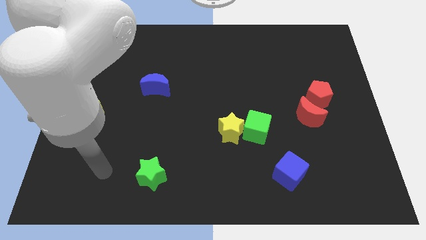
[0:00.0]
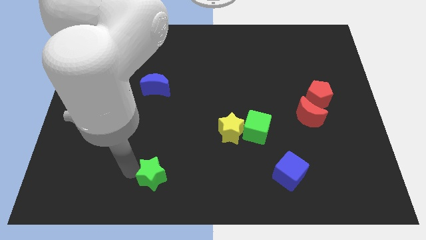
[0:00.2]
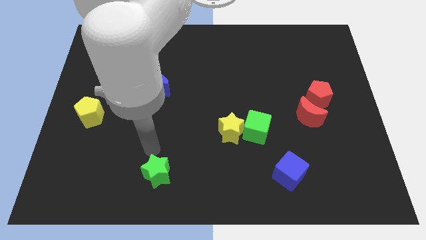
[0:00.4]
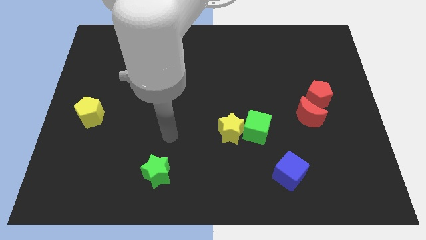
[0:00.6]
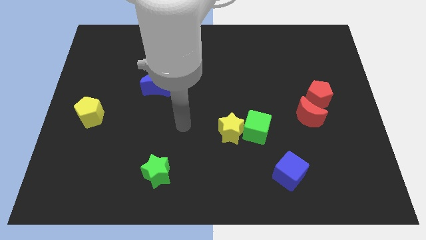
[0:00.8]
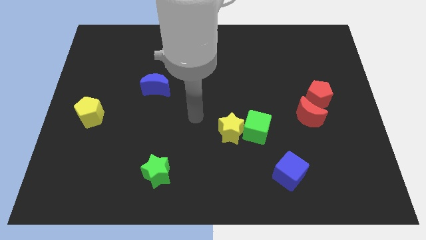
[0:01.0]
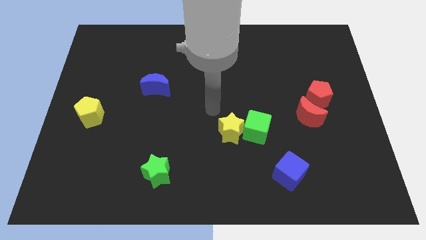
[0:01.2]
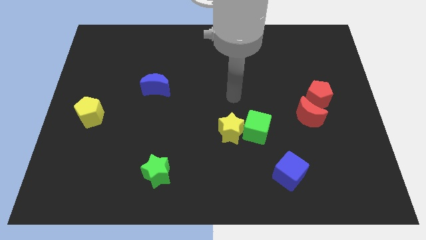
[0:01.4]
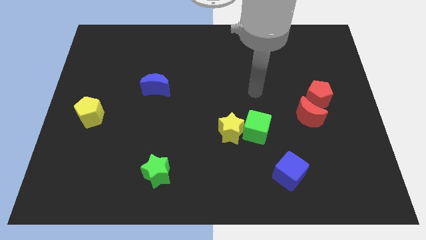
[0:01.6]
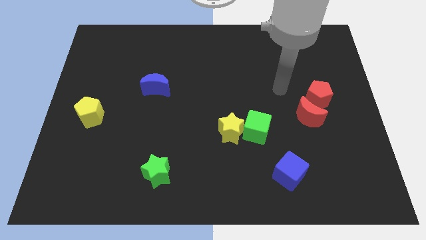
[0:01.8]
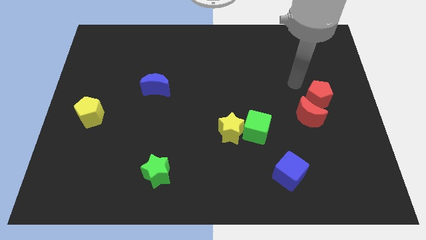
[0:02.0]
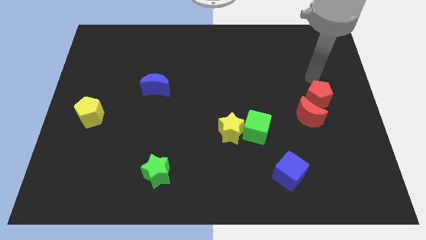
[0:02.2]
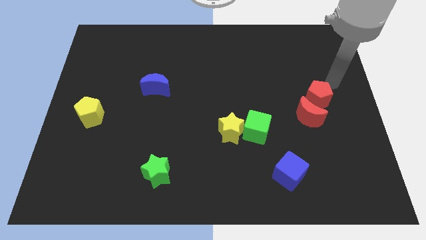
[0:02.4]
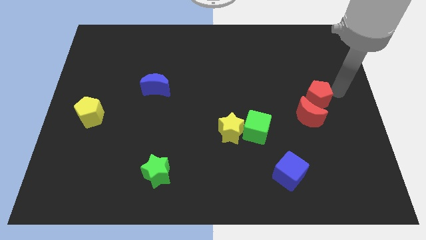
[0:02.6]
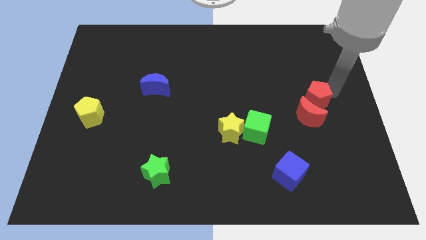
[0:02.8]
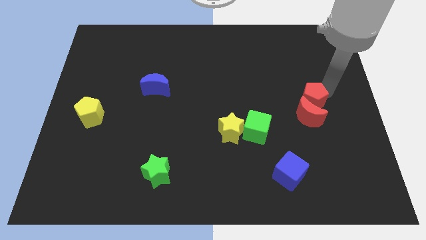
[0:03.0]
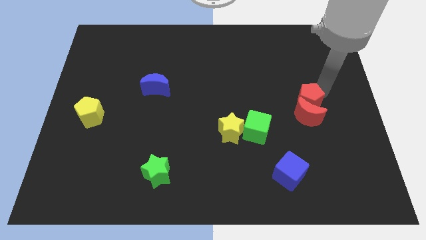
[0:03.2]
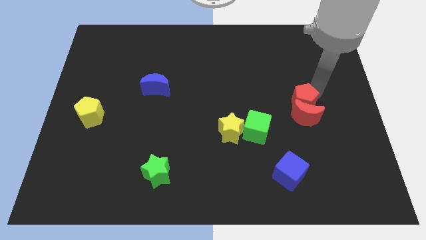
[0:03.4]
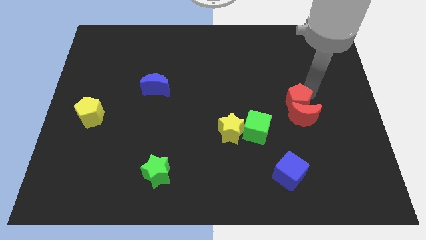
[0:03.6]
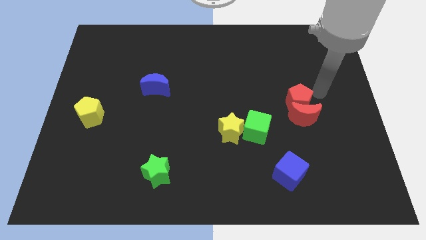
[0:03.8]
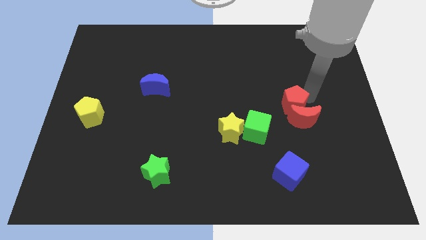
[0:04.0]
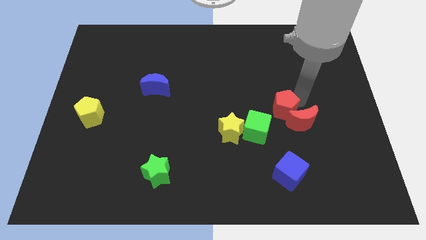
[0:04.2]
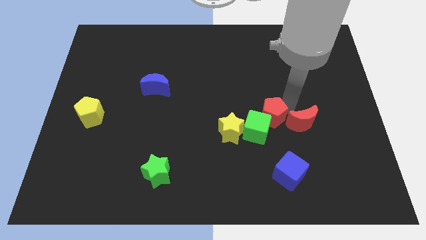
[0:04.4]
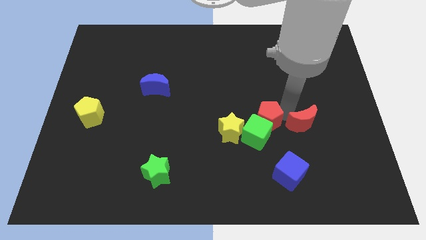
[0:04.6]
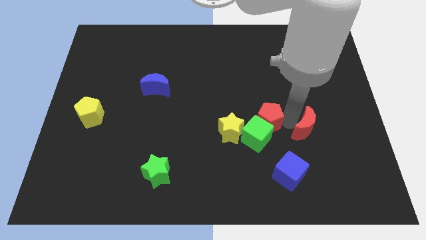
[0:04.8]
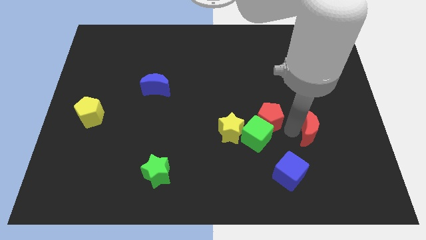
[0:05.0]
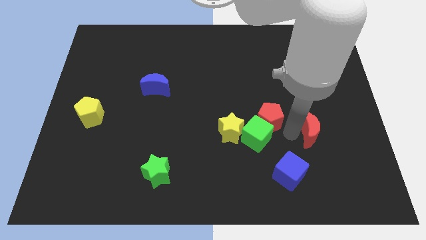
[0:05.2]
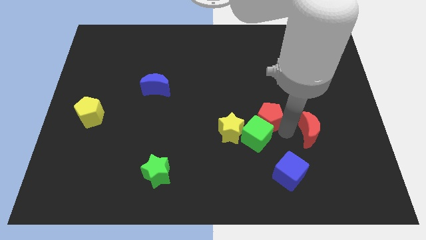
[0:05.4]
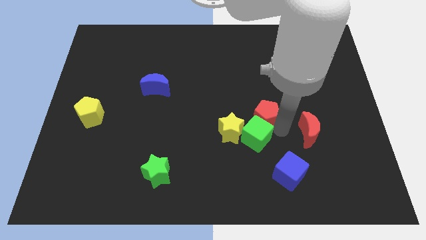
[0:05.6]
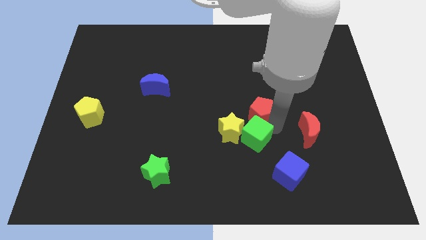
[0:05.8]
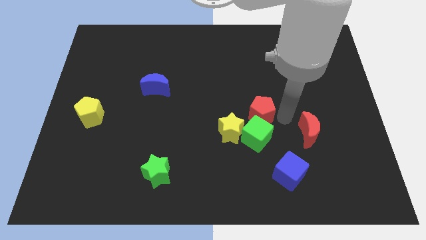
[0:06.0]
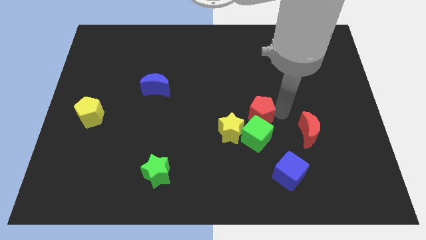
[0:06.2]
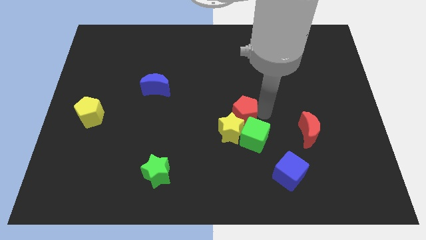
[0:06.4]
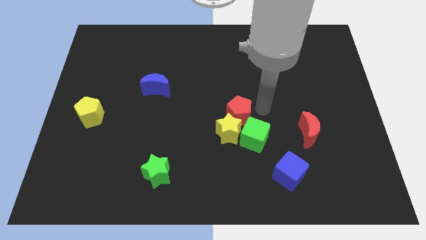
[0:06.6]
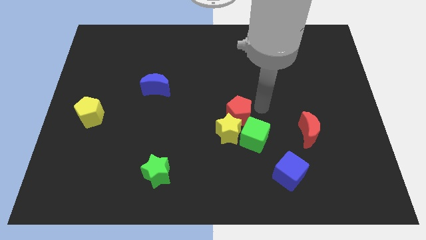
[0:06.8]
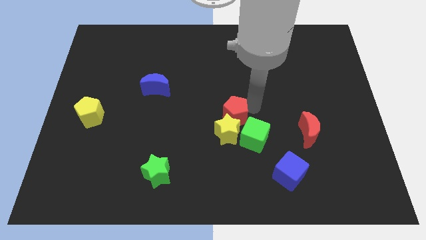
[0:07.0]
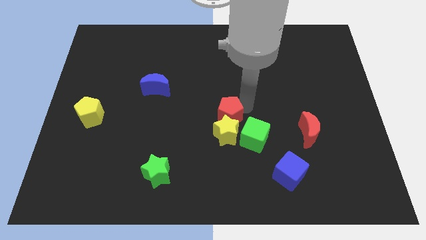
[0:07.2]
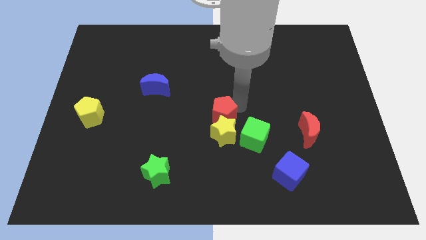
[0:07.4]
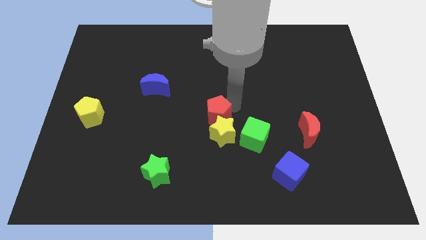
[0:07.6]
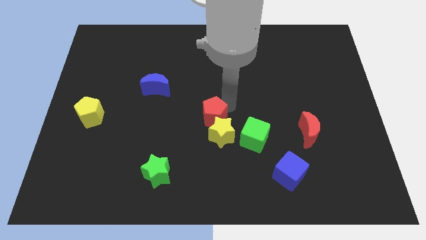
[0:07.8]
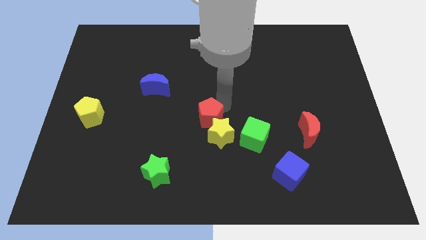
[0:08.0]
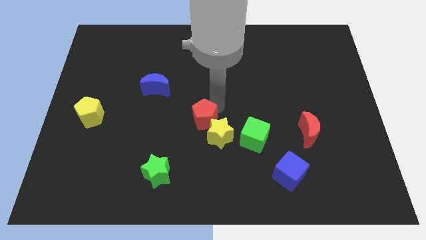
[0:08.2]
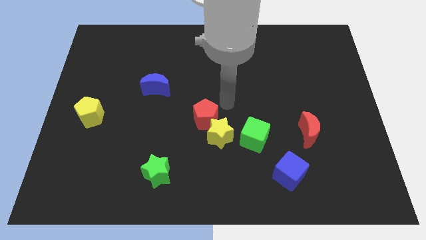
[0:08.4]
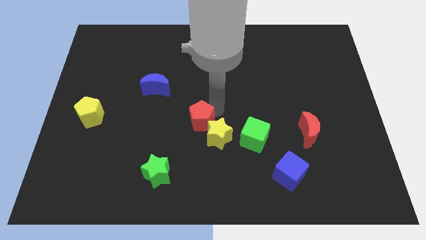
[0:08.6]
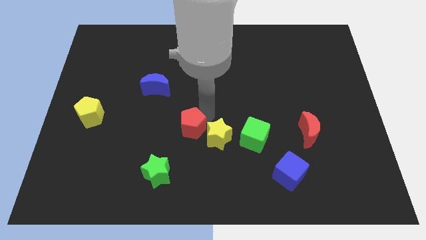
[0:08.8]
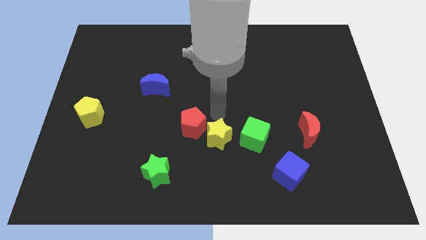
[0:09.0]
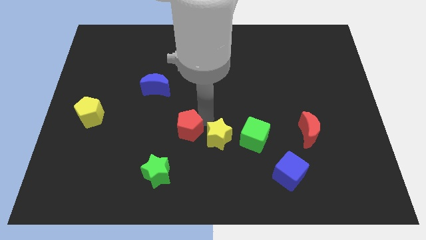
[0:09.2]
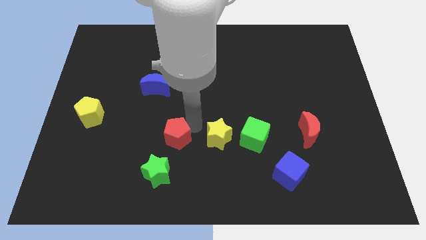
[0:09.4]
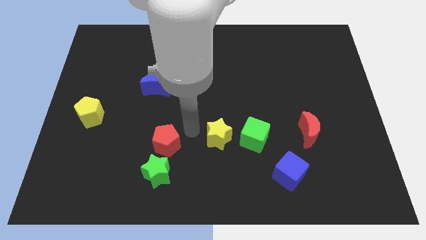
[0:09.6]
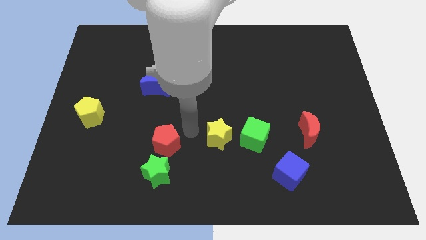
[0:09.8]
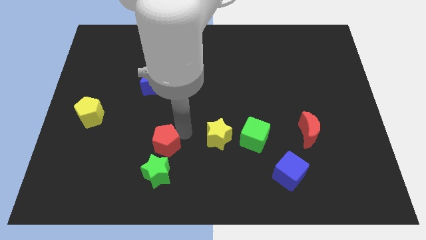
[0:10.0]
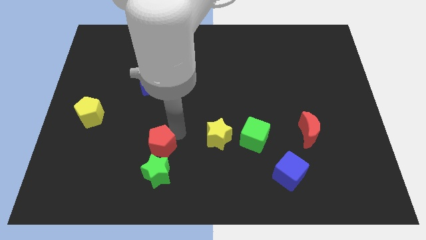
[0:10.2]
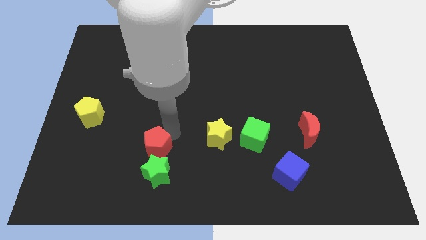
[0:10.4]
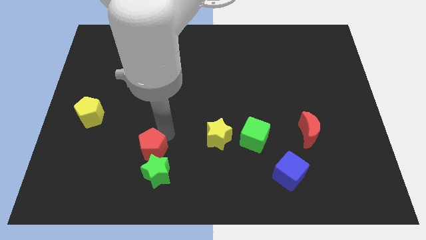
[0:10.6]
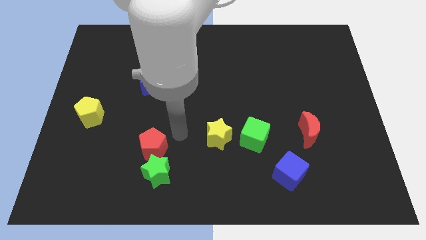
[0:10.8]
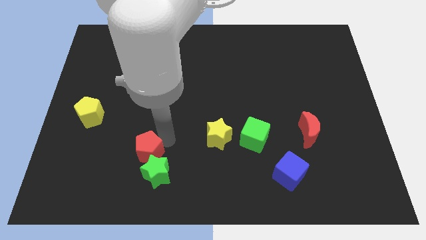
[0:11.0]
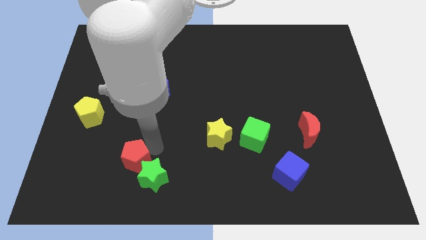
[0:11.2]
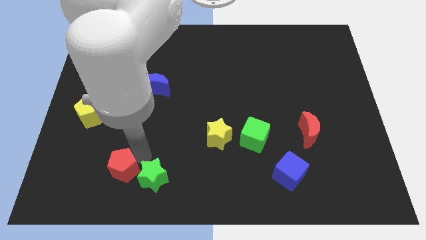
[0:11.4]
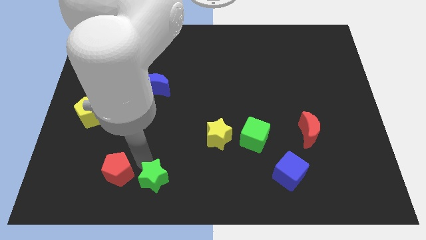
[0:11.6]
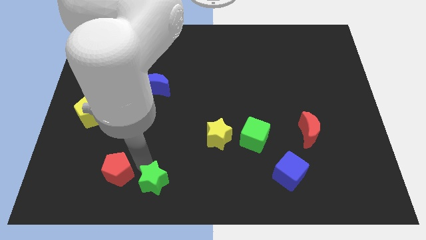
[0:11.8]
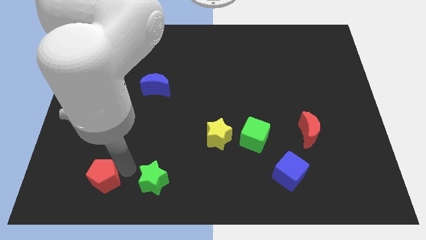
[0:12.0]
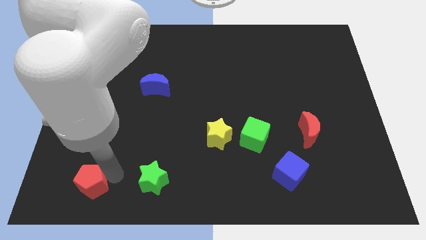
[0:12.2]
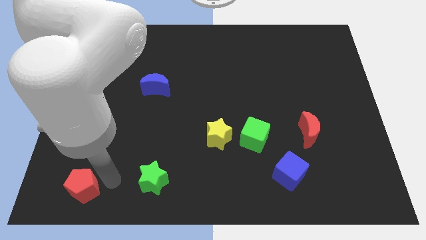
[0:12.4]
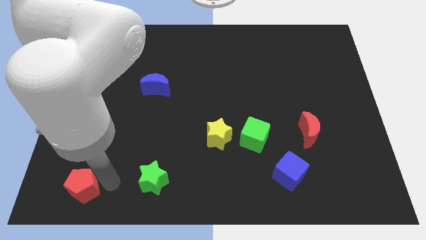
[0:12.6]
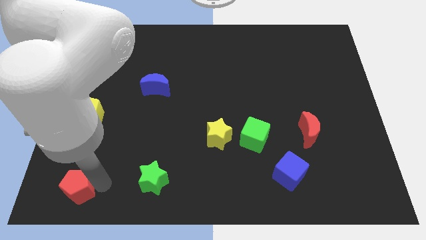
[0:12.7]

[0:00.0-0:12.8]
put the red pentagon to the bottom left of the board

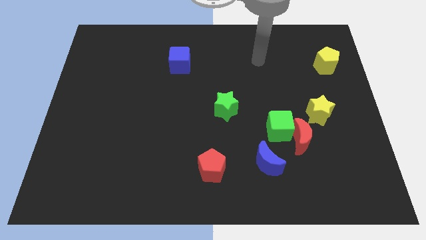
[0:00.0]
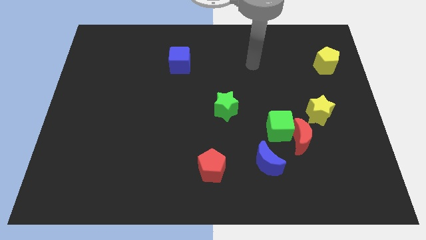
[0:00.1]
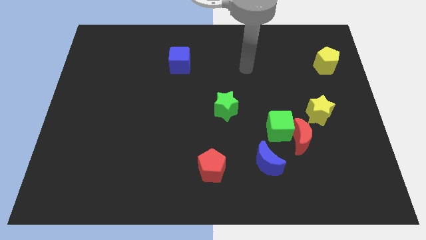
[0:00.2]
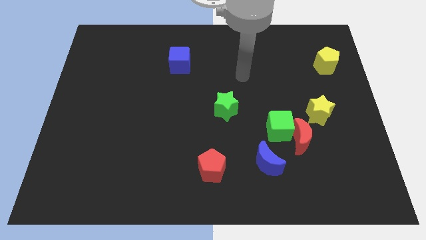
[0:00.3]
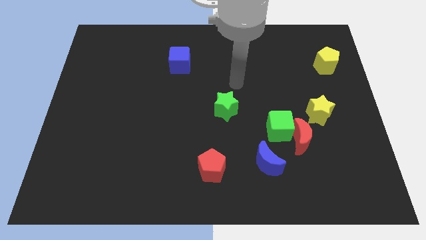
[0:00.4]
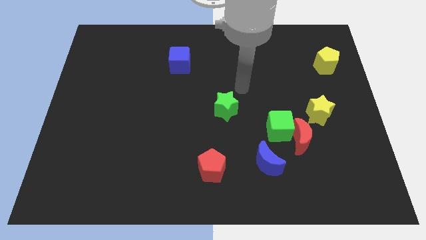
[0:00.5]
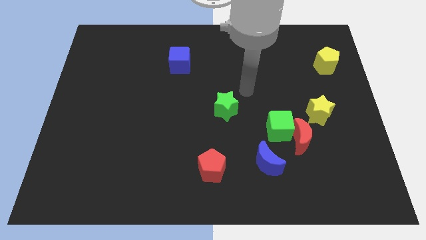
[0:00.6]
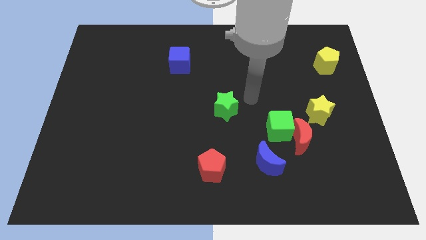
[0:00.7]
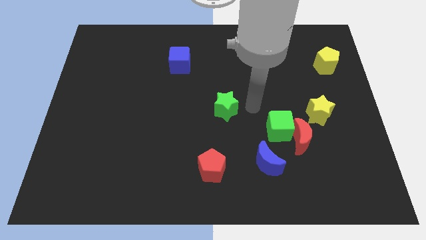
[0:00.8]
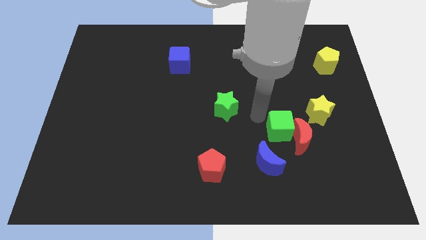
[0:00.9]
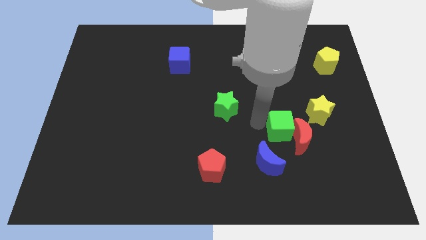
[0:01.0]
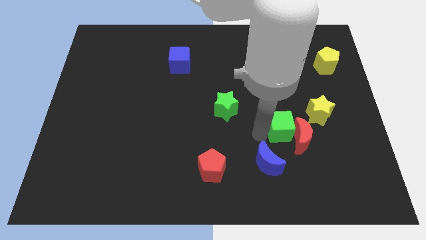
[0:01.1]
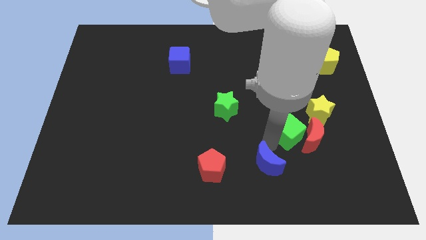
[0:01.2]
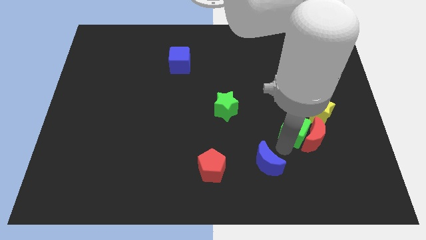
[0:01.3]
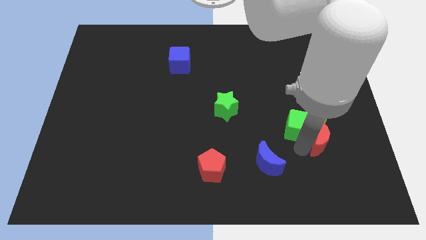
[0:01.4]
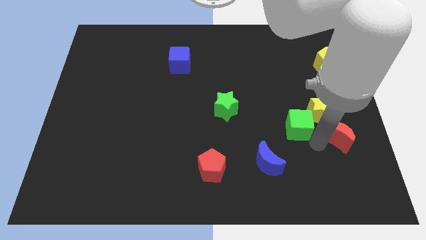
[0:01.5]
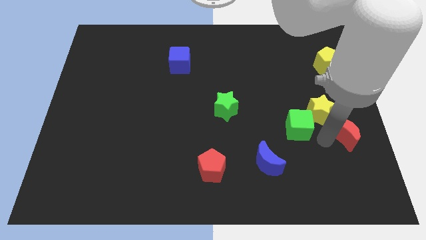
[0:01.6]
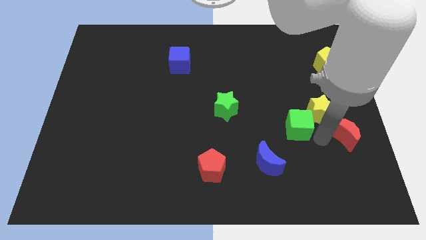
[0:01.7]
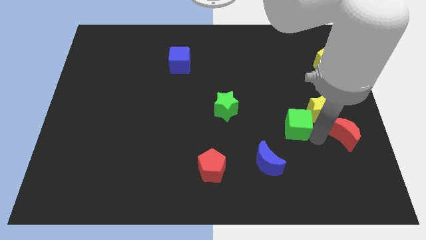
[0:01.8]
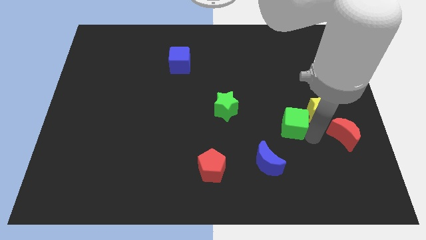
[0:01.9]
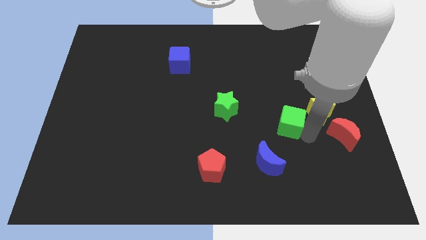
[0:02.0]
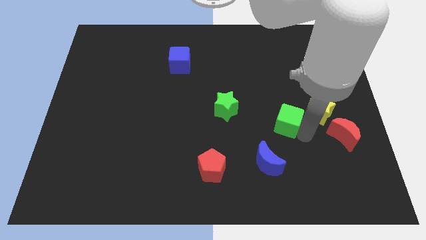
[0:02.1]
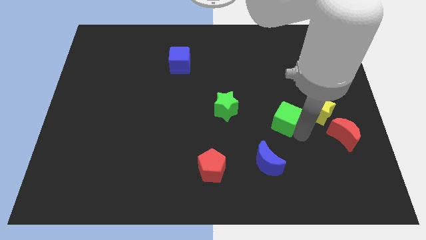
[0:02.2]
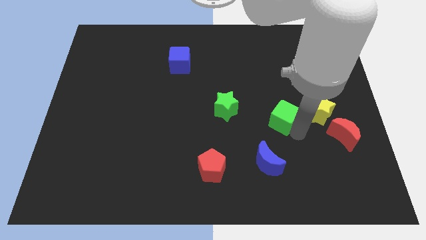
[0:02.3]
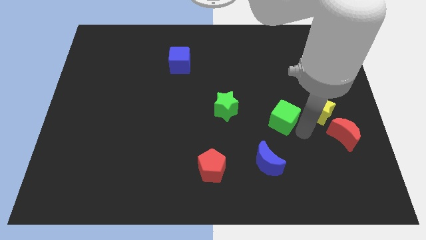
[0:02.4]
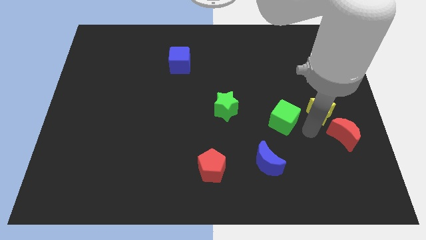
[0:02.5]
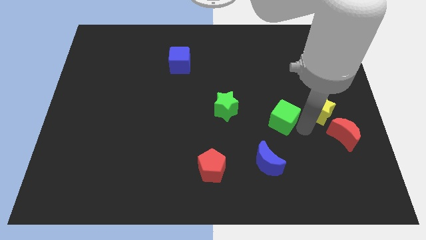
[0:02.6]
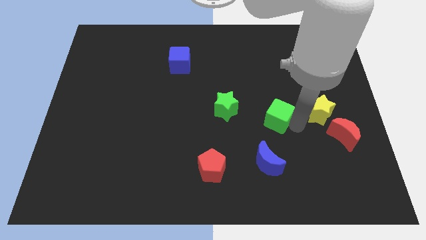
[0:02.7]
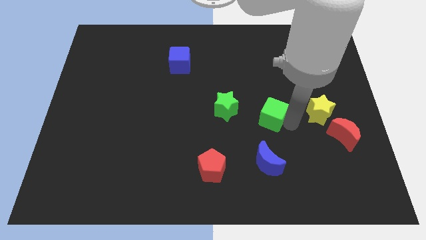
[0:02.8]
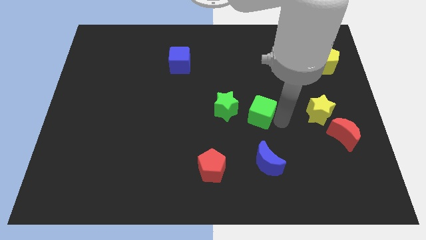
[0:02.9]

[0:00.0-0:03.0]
move the green cube to the center
